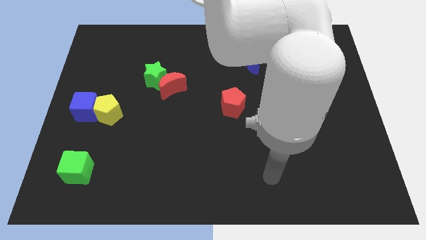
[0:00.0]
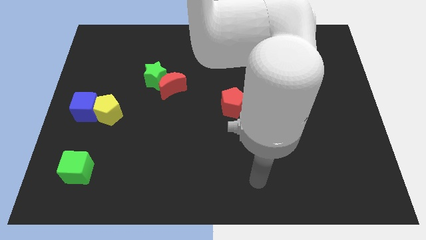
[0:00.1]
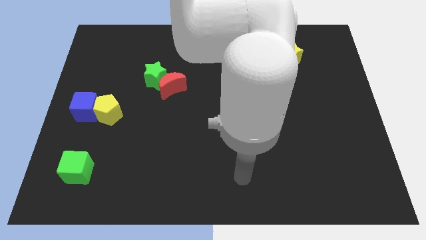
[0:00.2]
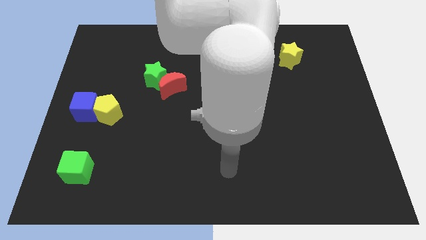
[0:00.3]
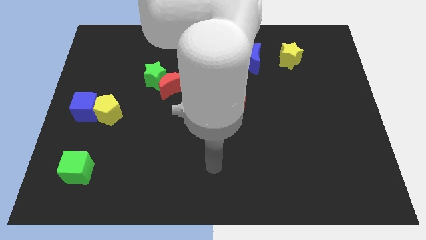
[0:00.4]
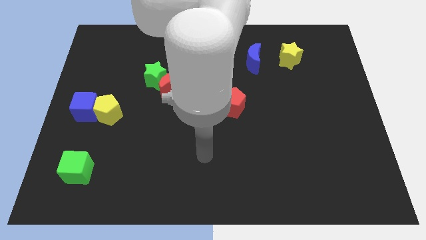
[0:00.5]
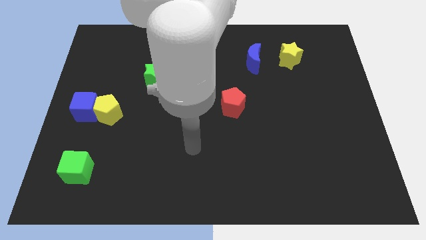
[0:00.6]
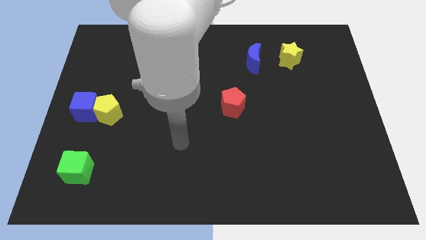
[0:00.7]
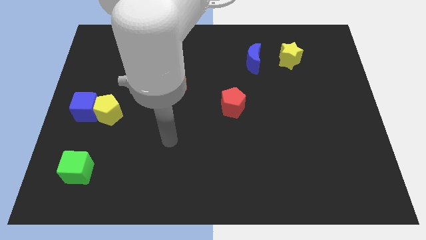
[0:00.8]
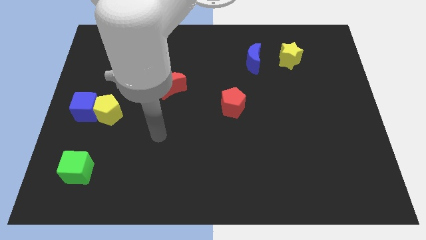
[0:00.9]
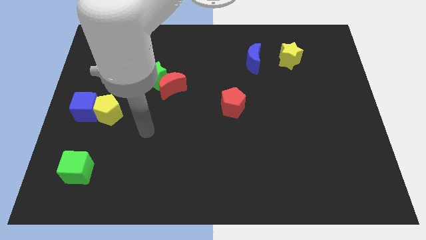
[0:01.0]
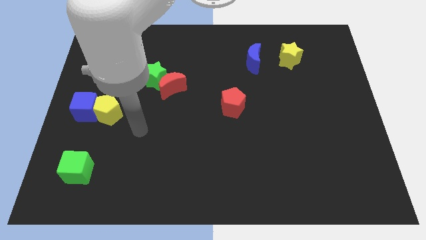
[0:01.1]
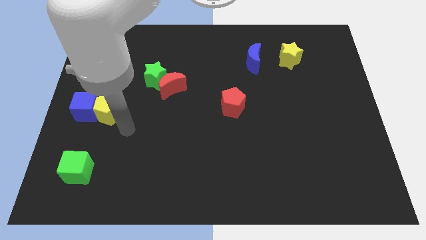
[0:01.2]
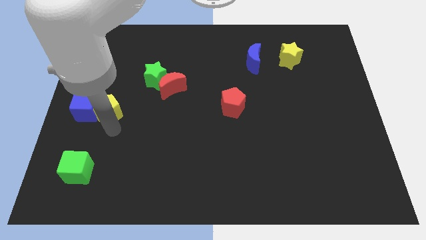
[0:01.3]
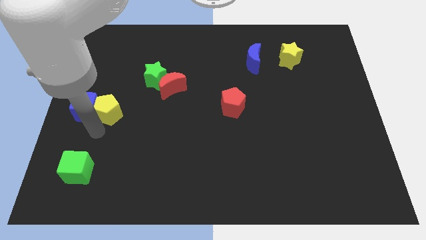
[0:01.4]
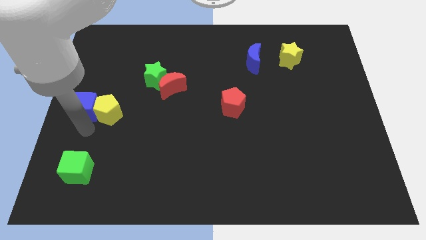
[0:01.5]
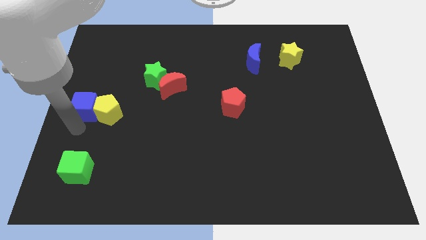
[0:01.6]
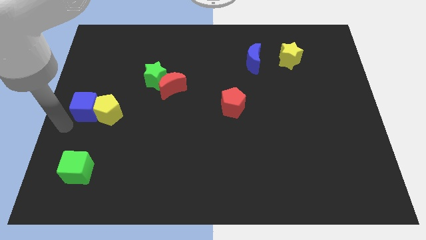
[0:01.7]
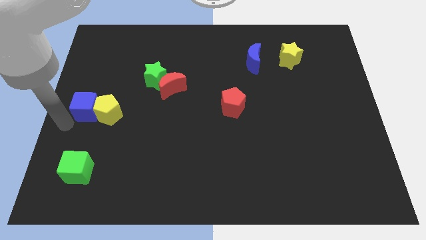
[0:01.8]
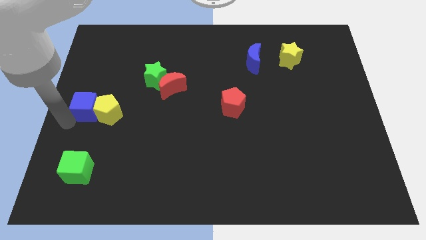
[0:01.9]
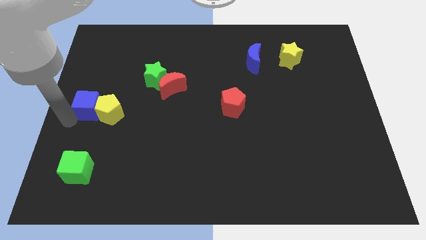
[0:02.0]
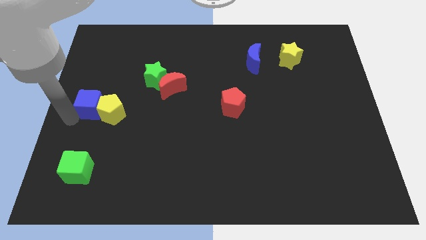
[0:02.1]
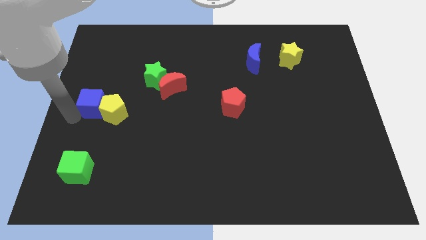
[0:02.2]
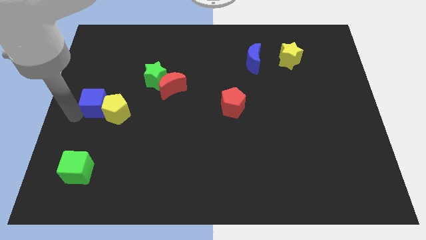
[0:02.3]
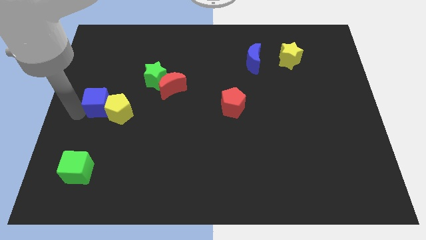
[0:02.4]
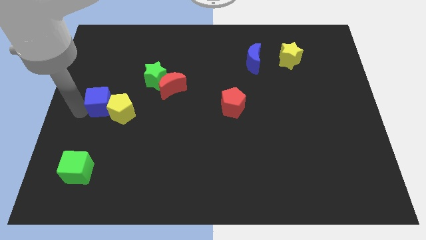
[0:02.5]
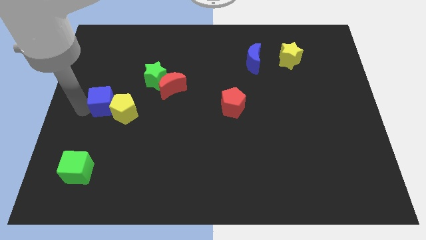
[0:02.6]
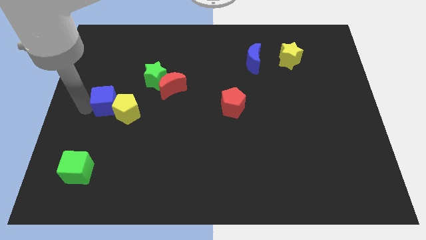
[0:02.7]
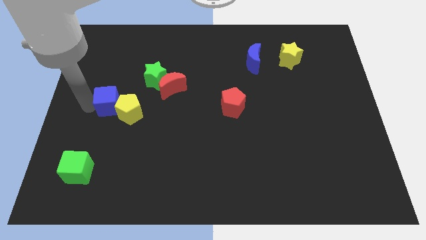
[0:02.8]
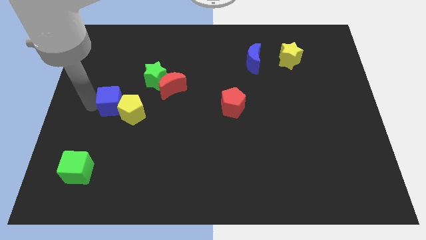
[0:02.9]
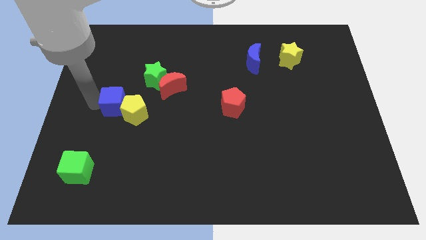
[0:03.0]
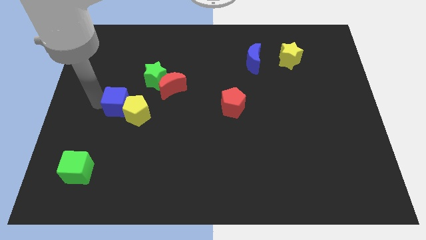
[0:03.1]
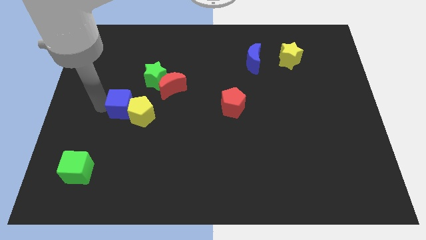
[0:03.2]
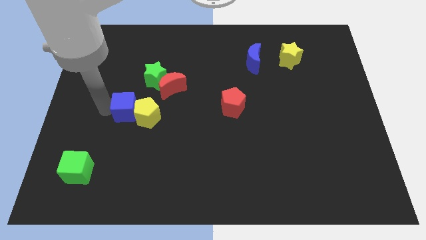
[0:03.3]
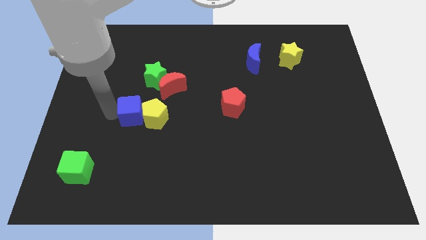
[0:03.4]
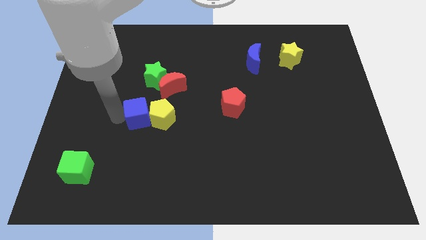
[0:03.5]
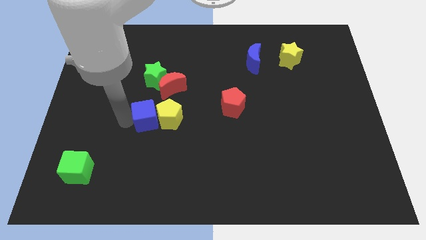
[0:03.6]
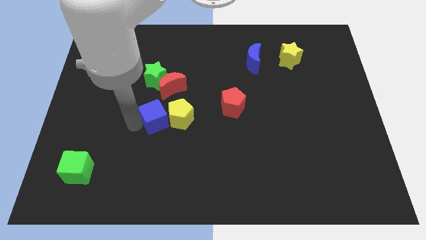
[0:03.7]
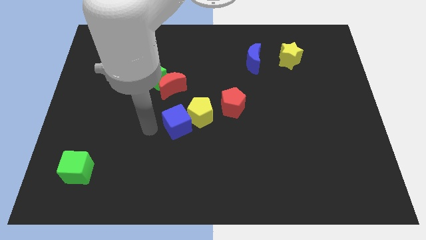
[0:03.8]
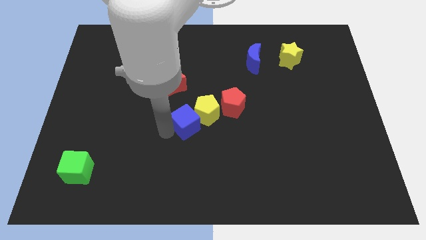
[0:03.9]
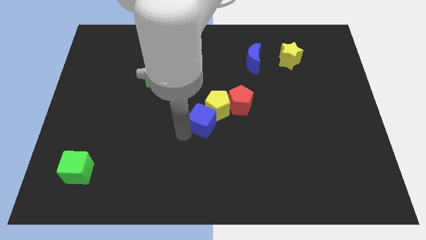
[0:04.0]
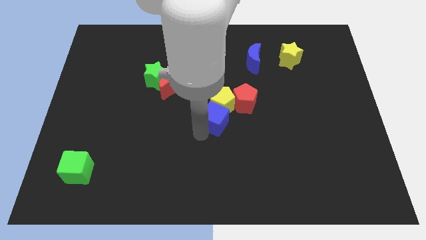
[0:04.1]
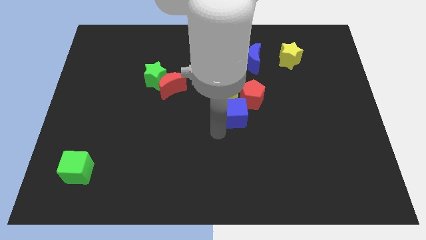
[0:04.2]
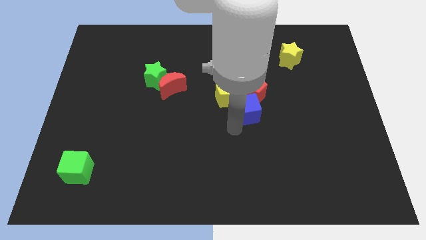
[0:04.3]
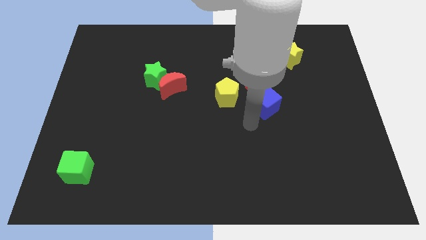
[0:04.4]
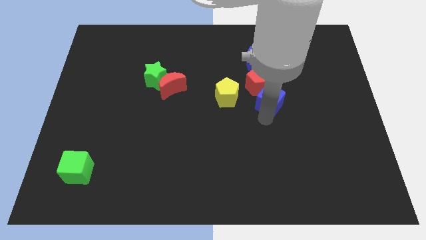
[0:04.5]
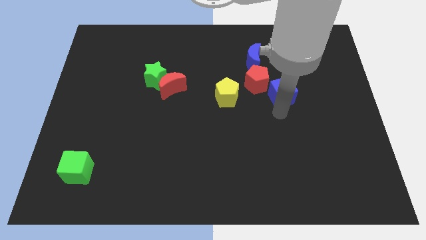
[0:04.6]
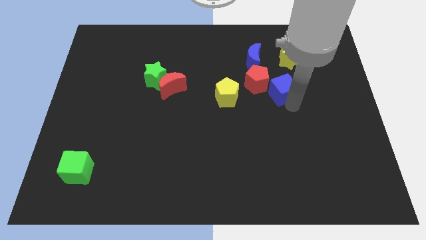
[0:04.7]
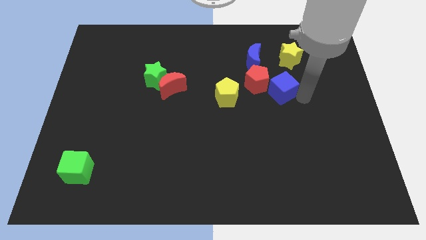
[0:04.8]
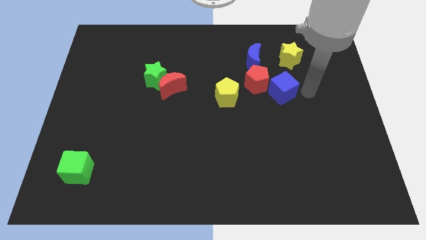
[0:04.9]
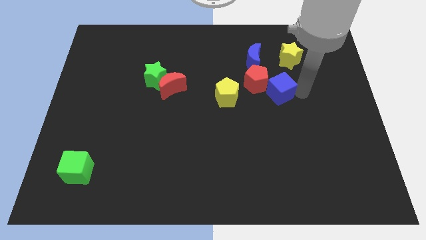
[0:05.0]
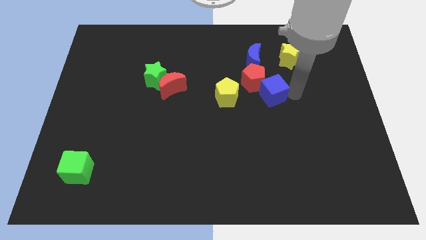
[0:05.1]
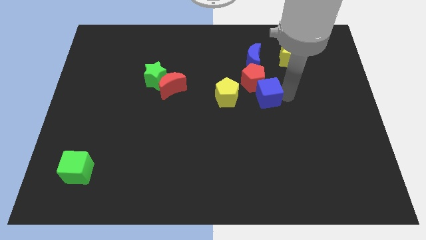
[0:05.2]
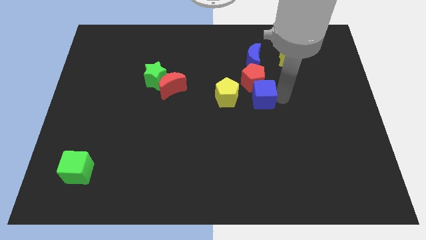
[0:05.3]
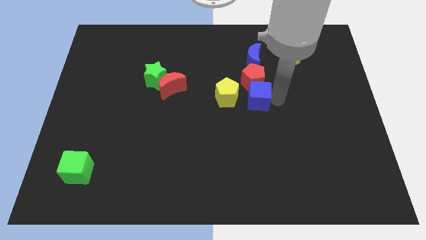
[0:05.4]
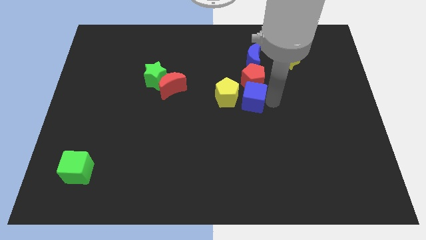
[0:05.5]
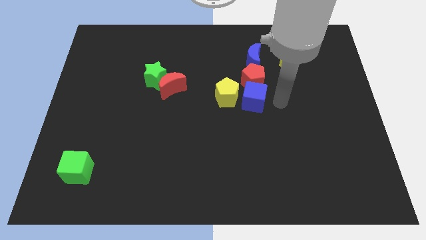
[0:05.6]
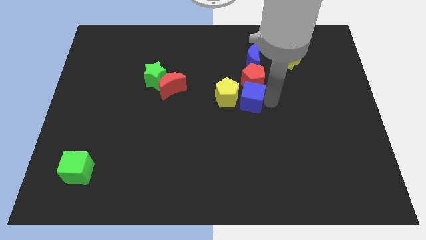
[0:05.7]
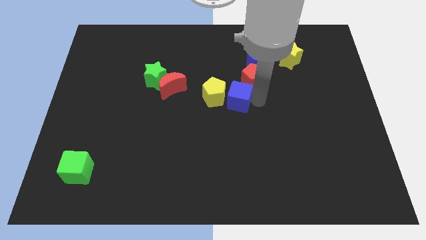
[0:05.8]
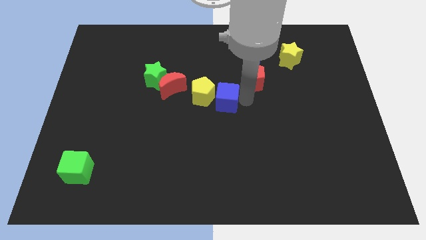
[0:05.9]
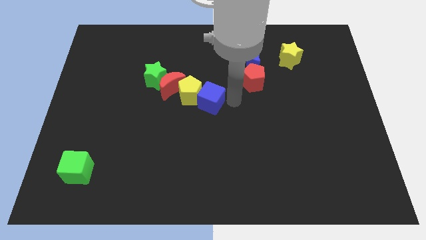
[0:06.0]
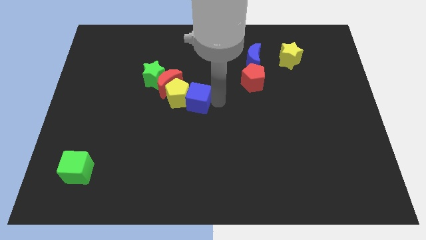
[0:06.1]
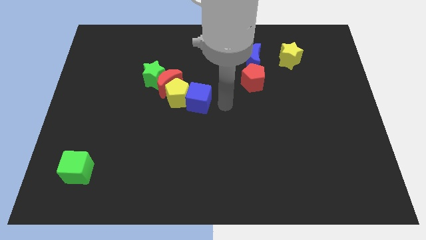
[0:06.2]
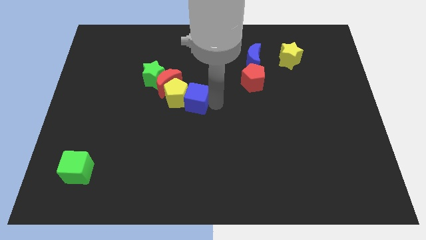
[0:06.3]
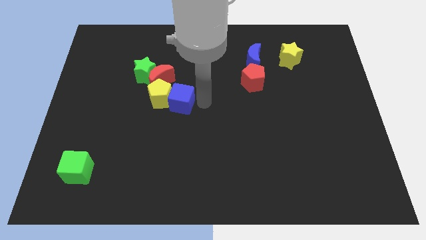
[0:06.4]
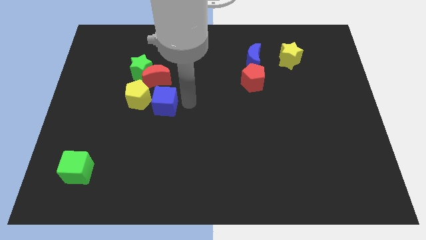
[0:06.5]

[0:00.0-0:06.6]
push the blue cube slightly upwards and then right

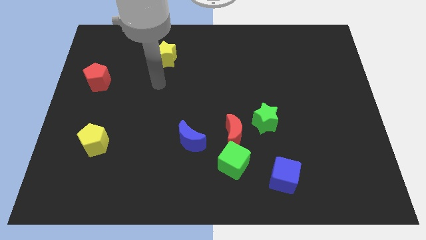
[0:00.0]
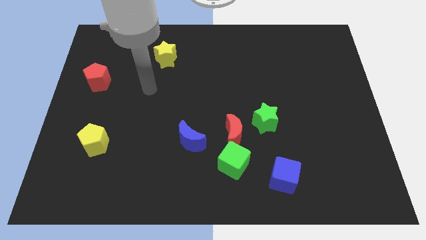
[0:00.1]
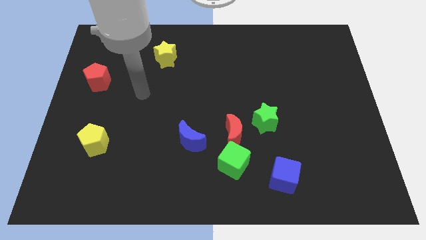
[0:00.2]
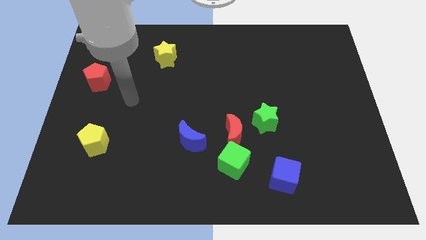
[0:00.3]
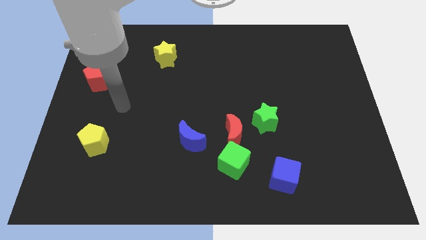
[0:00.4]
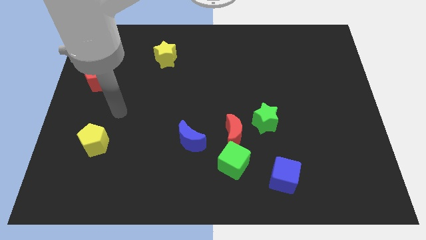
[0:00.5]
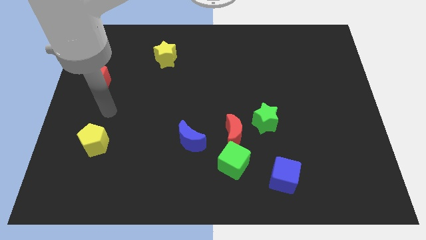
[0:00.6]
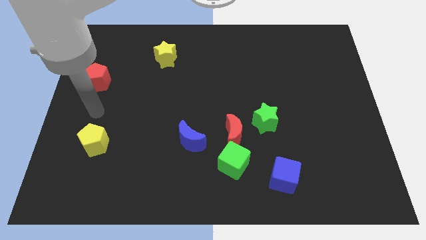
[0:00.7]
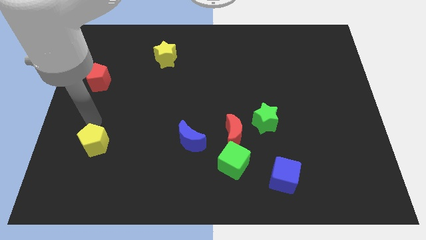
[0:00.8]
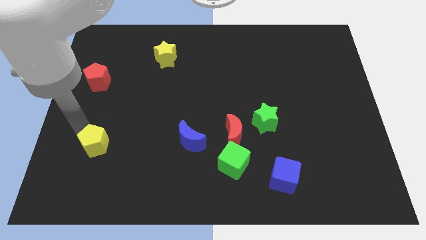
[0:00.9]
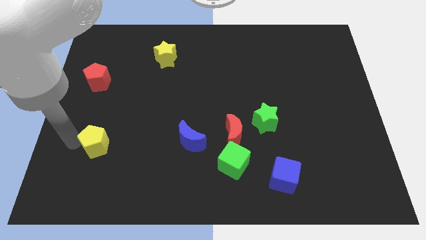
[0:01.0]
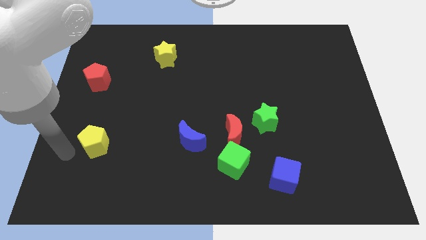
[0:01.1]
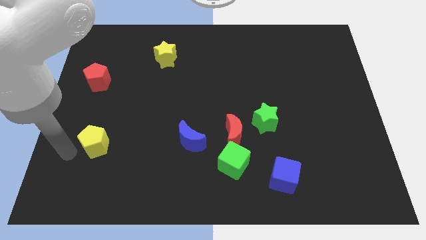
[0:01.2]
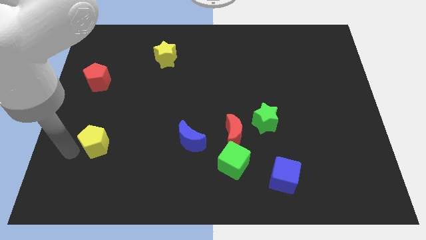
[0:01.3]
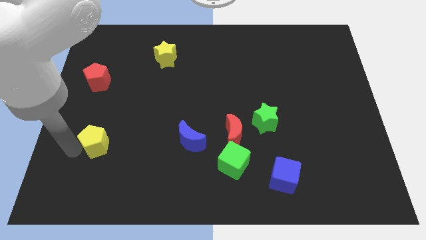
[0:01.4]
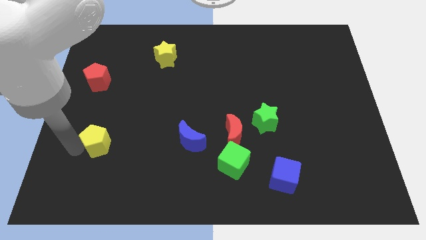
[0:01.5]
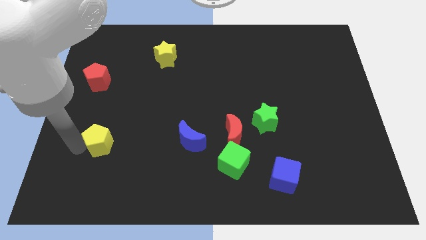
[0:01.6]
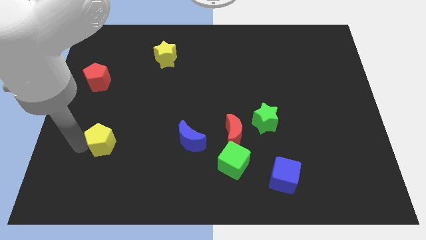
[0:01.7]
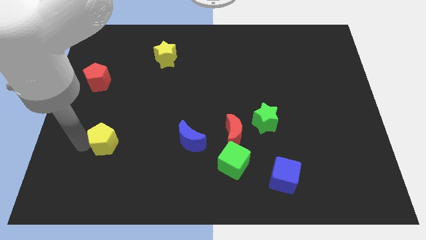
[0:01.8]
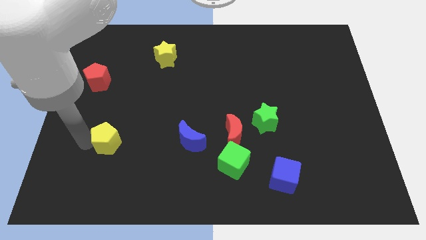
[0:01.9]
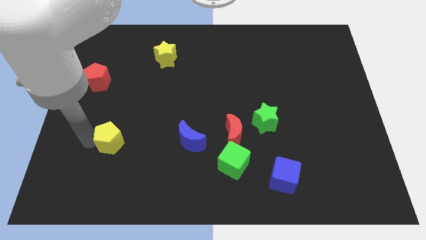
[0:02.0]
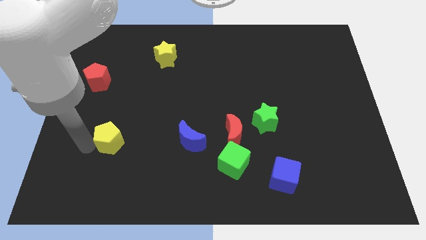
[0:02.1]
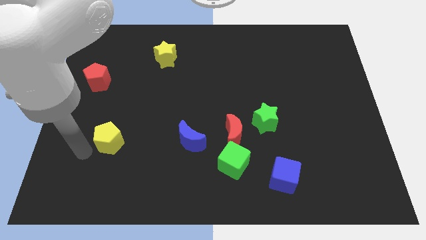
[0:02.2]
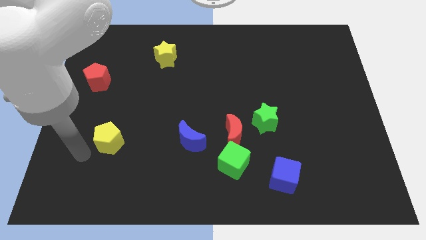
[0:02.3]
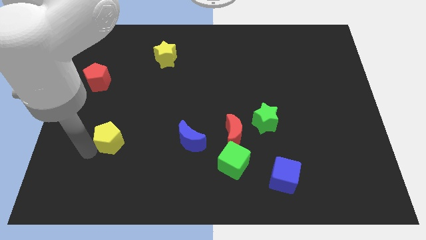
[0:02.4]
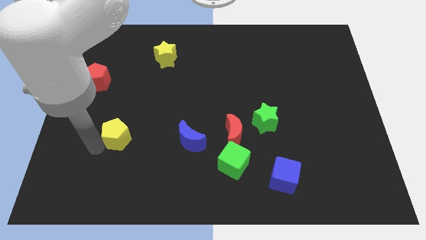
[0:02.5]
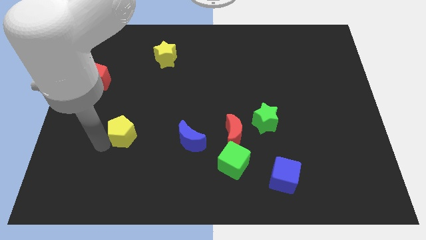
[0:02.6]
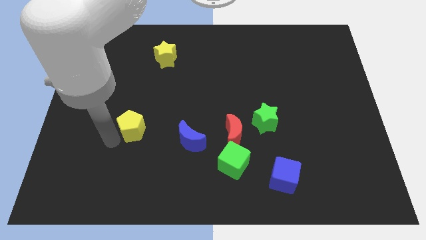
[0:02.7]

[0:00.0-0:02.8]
move the yellow pentagon a bit upwards and to the right diagonally
